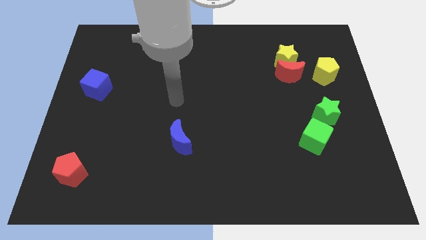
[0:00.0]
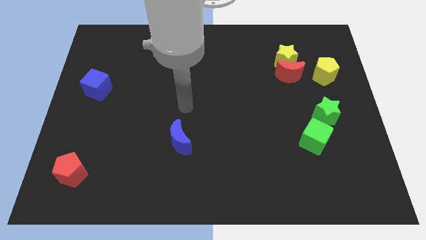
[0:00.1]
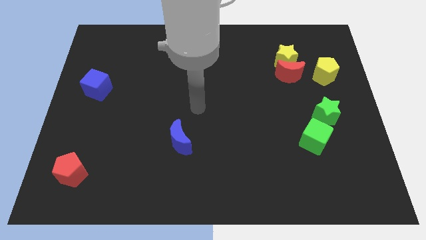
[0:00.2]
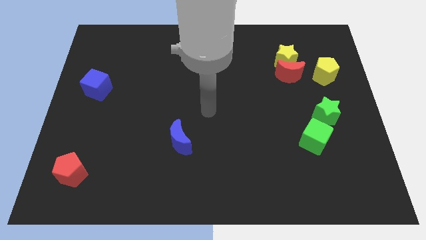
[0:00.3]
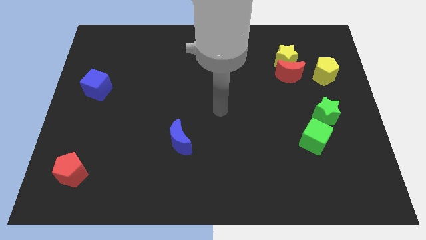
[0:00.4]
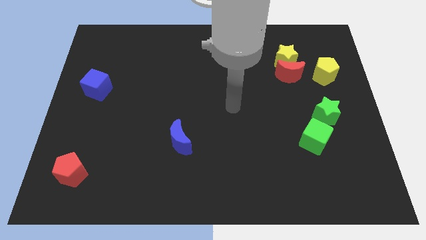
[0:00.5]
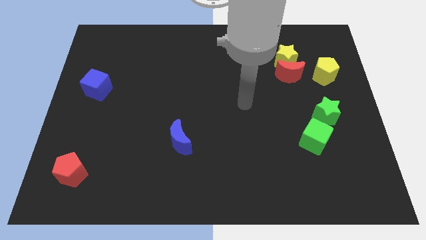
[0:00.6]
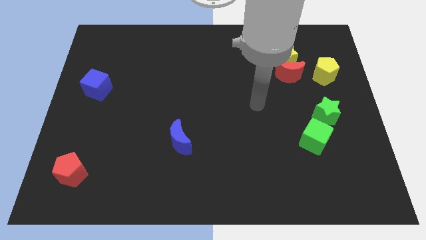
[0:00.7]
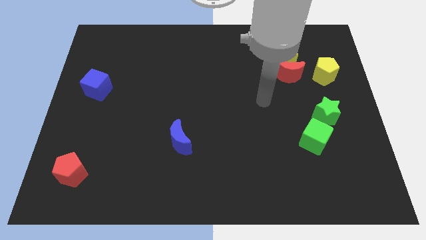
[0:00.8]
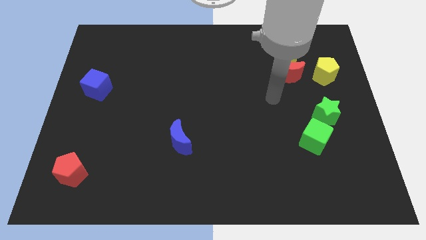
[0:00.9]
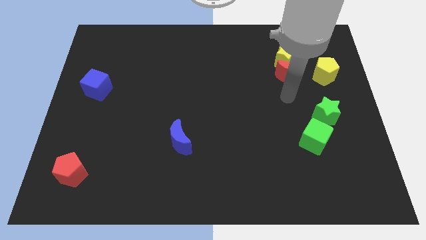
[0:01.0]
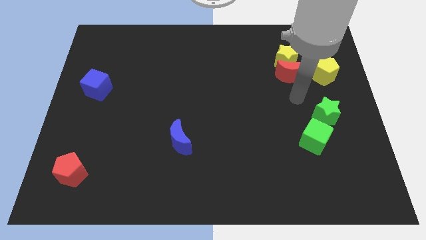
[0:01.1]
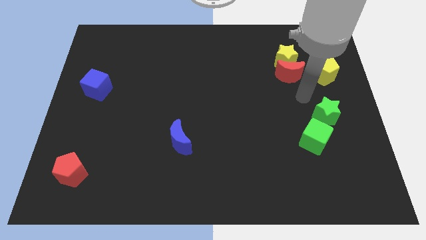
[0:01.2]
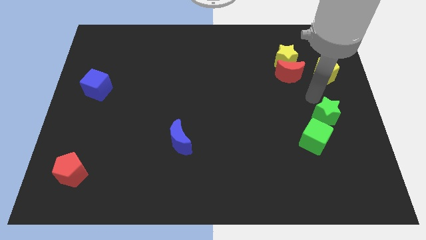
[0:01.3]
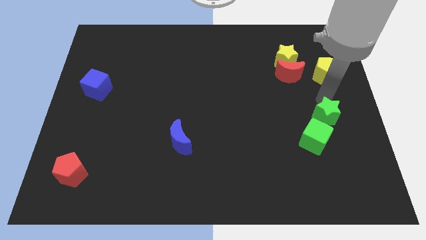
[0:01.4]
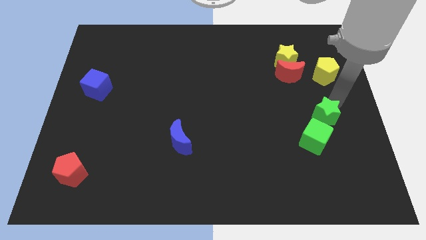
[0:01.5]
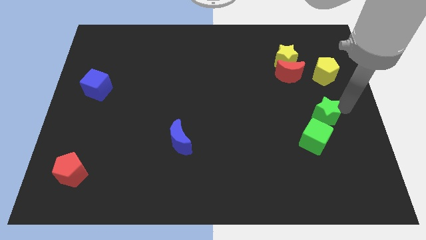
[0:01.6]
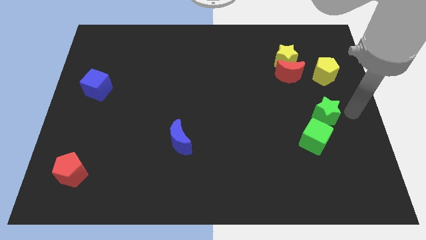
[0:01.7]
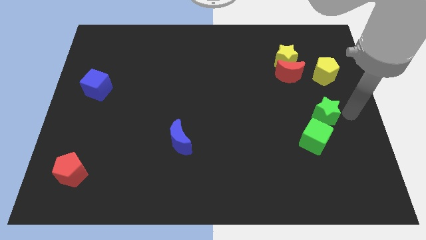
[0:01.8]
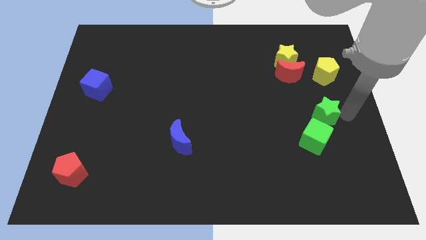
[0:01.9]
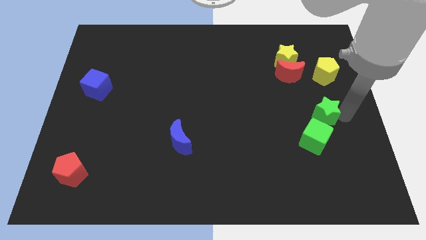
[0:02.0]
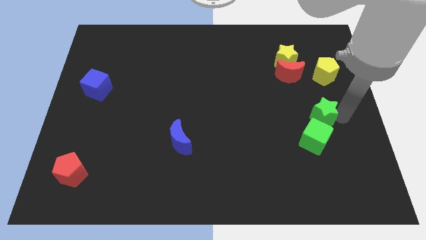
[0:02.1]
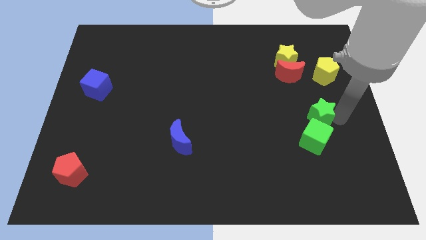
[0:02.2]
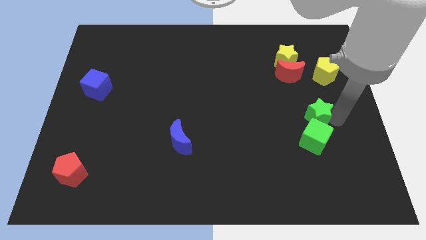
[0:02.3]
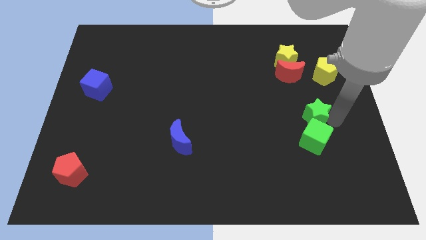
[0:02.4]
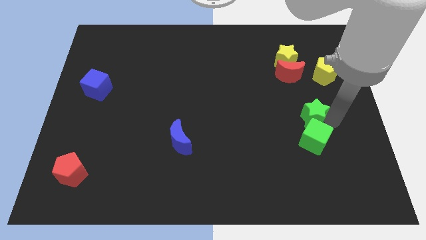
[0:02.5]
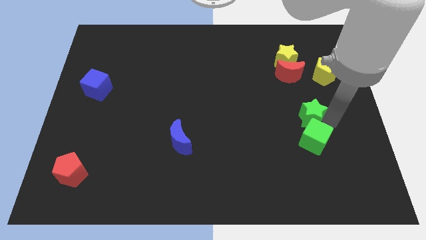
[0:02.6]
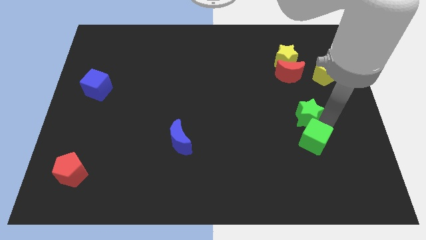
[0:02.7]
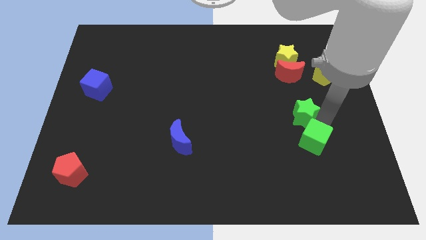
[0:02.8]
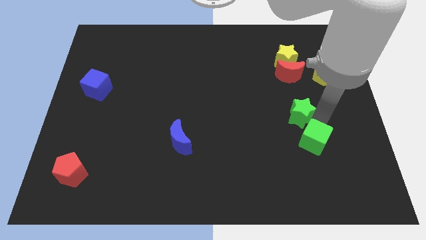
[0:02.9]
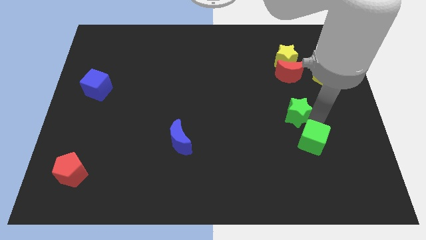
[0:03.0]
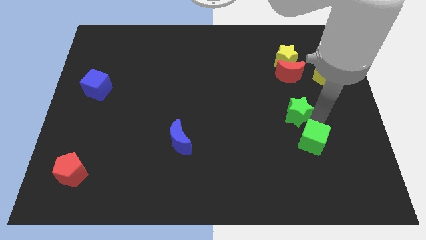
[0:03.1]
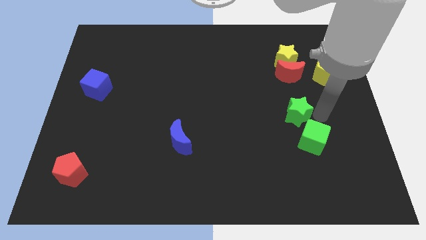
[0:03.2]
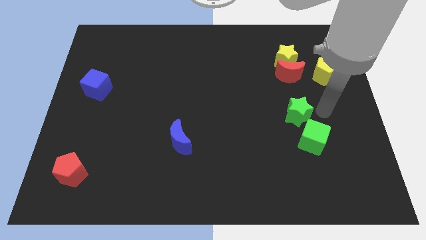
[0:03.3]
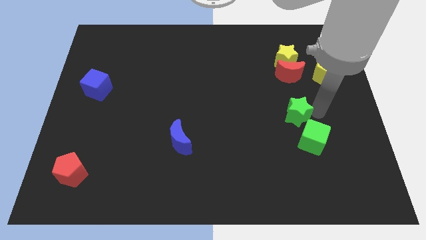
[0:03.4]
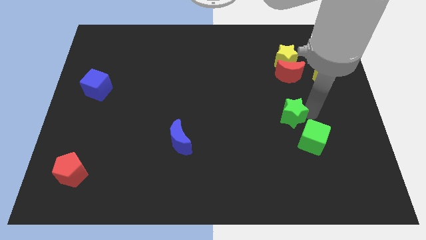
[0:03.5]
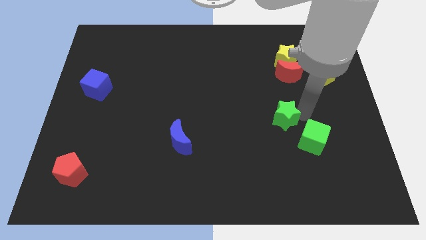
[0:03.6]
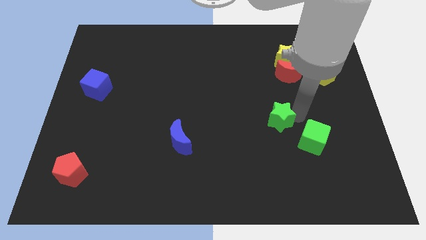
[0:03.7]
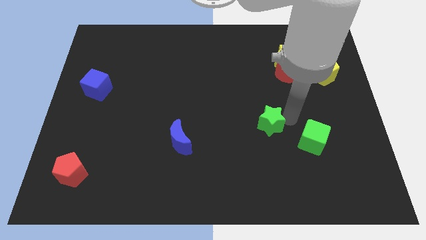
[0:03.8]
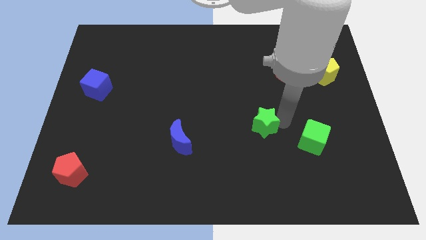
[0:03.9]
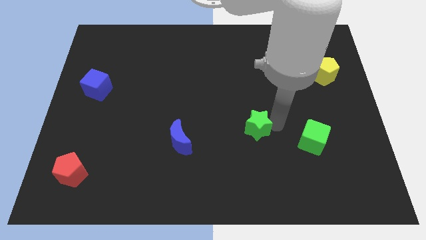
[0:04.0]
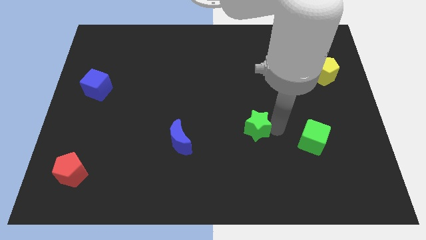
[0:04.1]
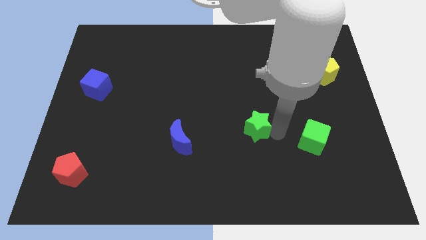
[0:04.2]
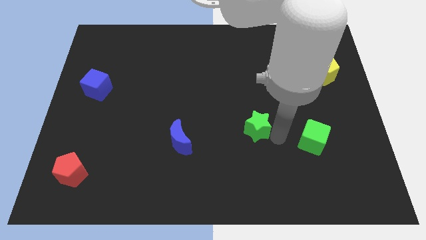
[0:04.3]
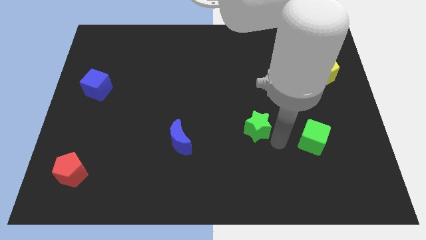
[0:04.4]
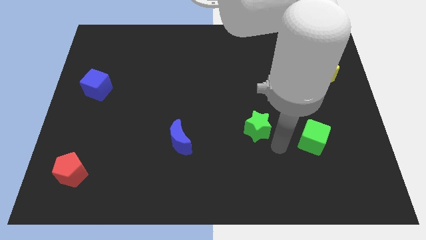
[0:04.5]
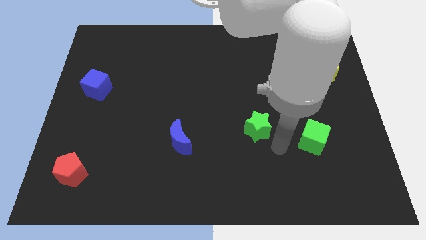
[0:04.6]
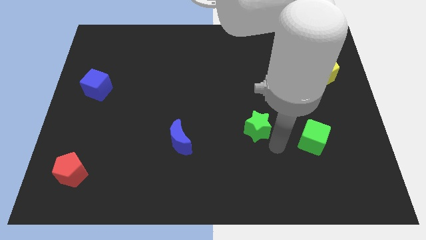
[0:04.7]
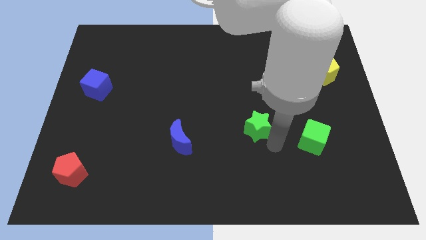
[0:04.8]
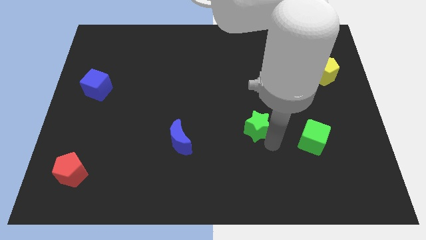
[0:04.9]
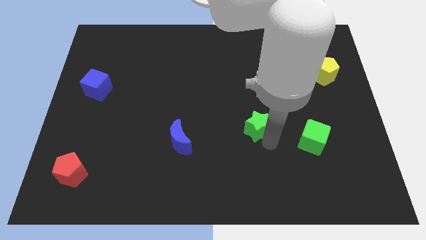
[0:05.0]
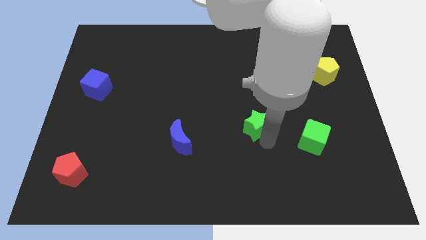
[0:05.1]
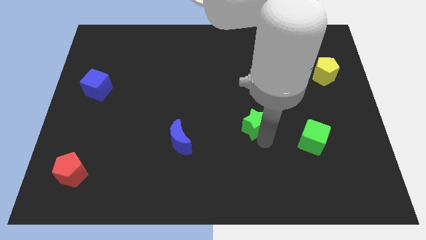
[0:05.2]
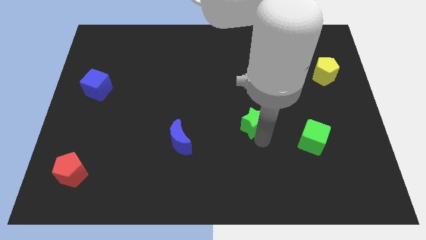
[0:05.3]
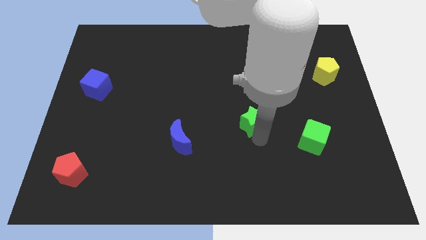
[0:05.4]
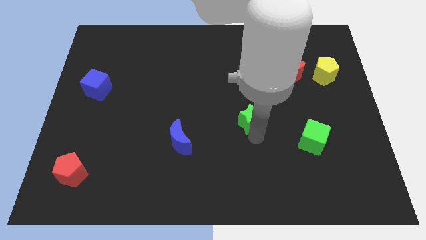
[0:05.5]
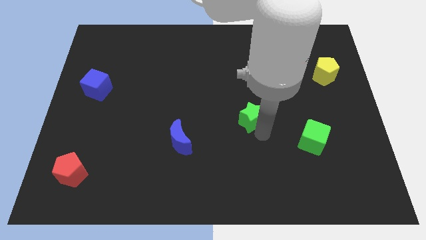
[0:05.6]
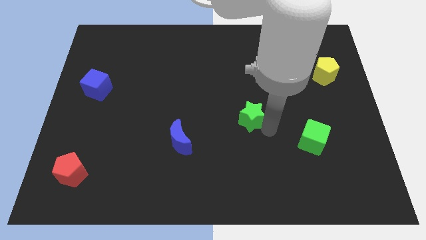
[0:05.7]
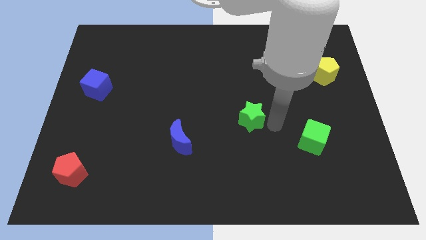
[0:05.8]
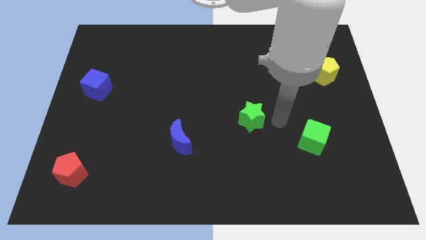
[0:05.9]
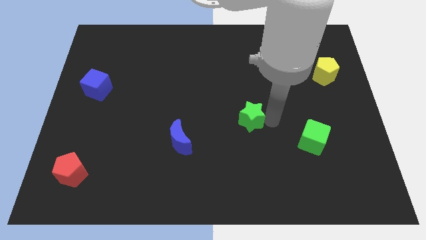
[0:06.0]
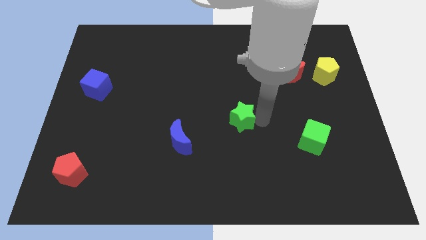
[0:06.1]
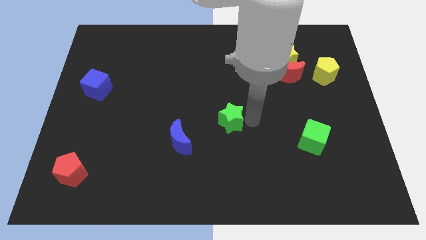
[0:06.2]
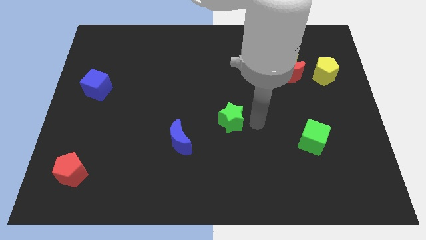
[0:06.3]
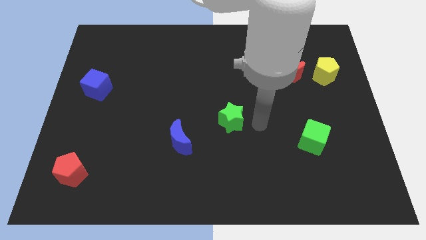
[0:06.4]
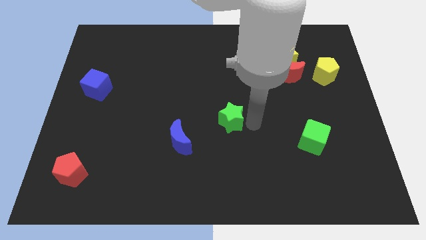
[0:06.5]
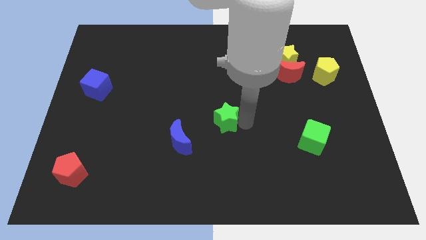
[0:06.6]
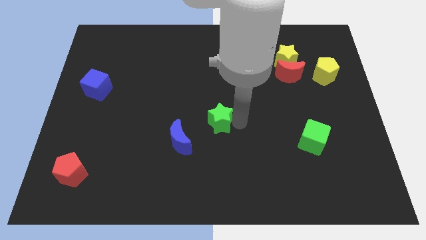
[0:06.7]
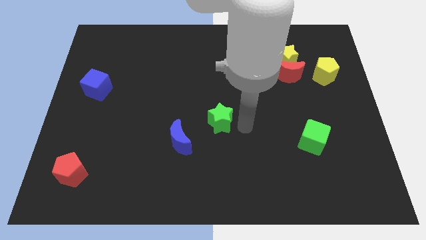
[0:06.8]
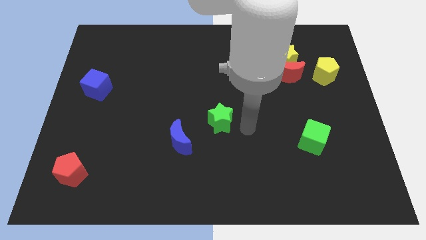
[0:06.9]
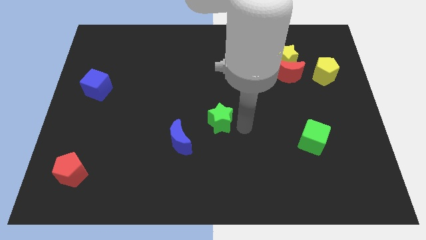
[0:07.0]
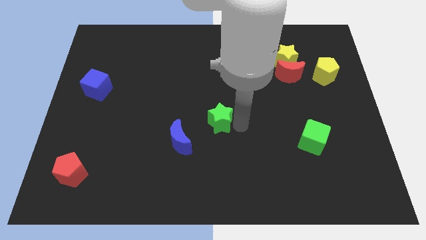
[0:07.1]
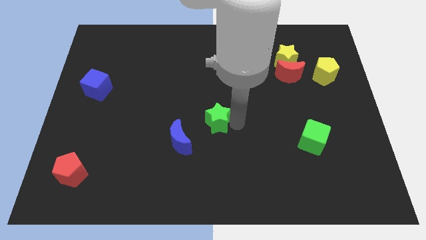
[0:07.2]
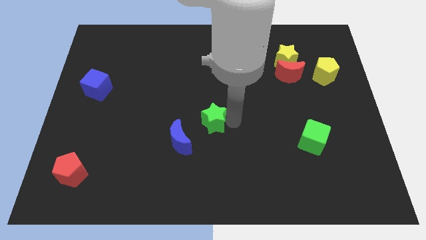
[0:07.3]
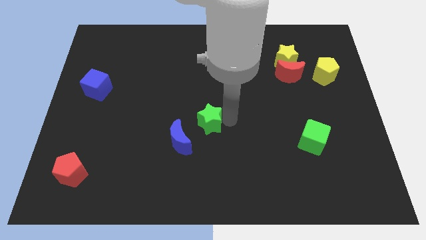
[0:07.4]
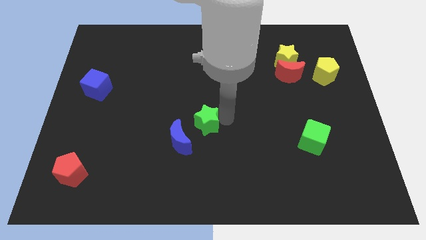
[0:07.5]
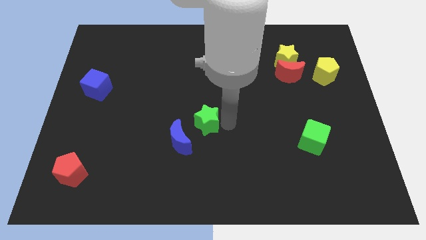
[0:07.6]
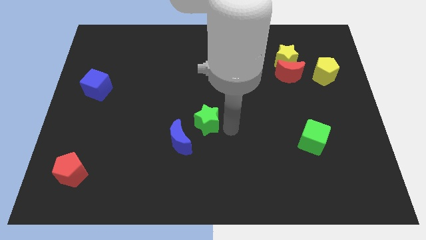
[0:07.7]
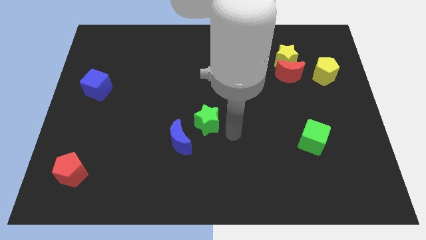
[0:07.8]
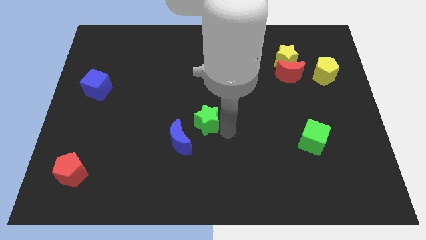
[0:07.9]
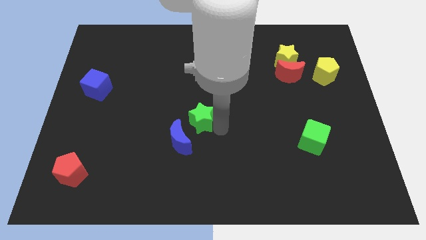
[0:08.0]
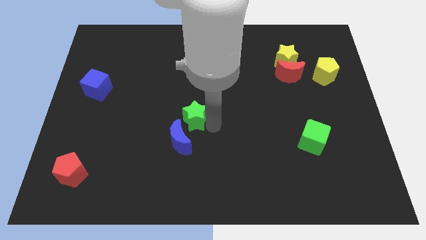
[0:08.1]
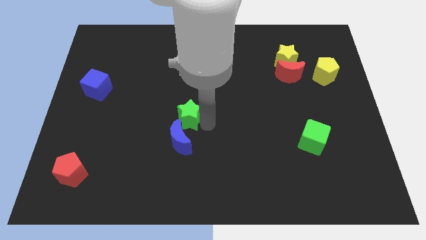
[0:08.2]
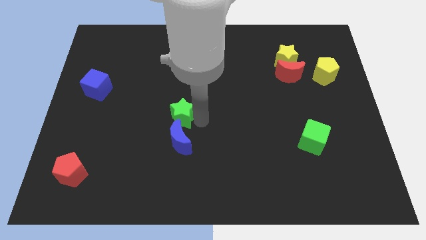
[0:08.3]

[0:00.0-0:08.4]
push the green star diagonally up and to the left of the blue moon
